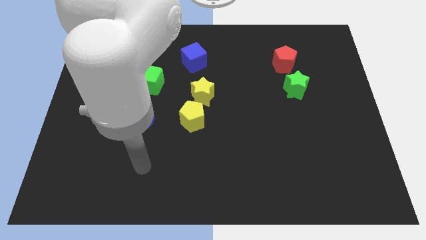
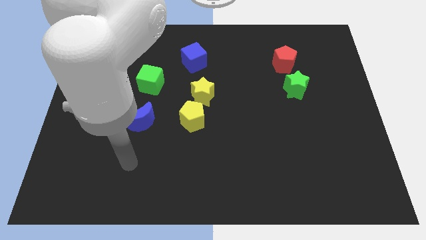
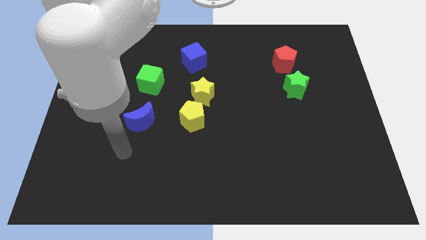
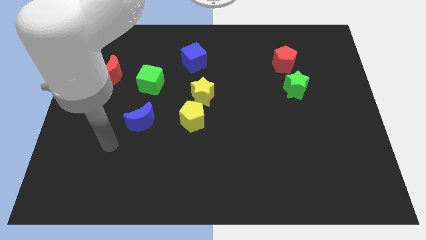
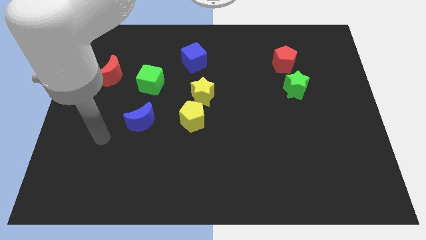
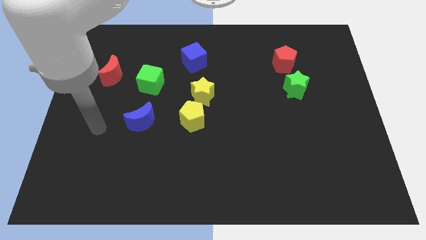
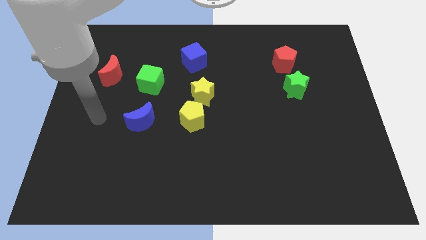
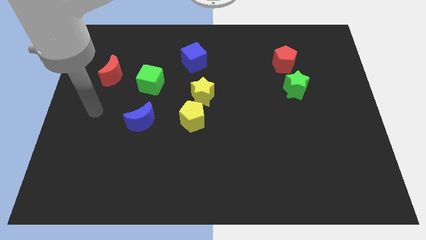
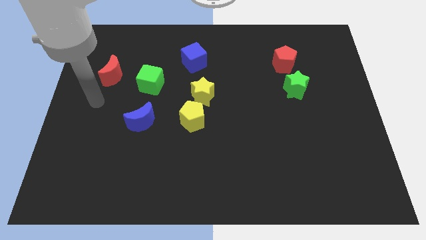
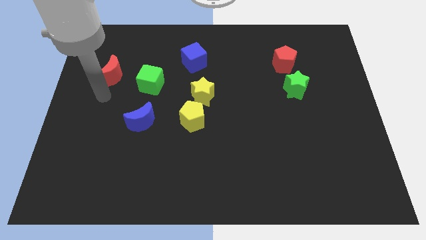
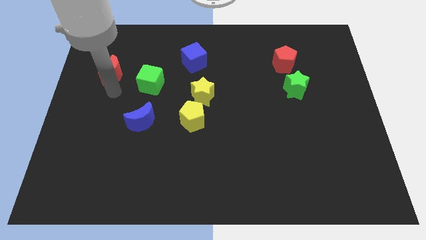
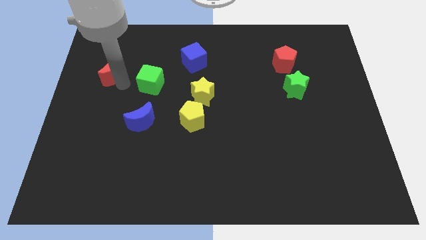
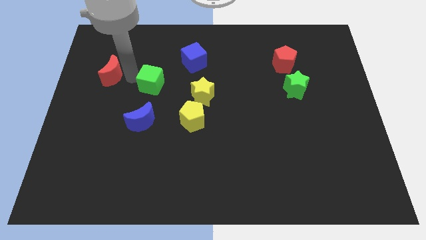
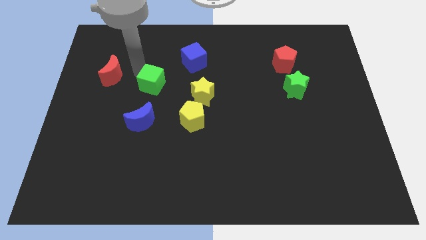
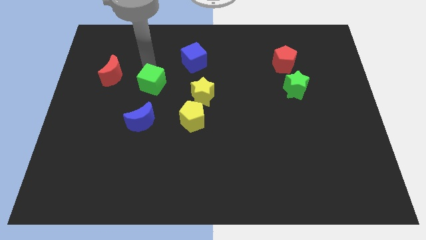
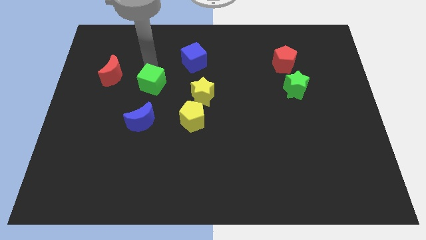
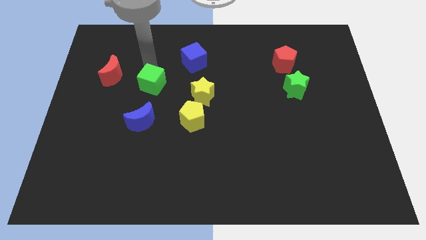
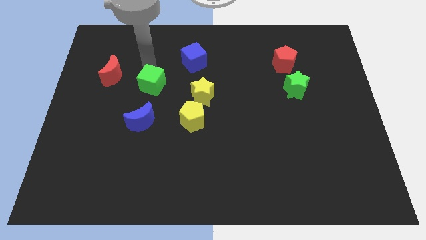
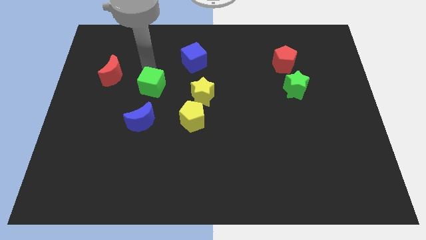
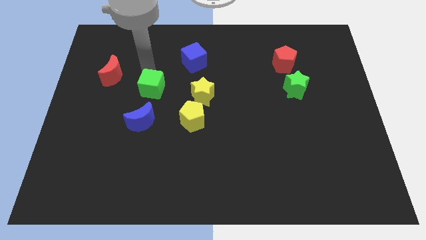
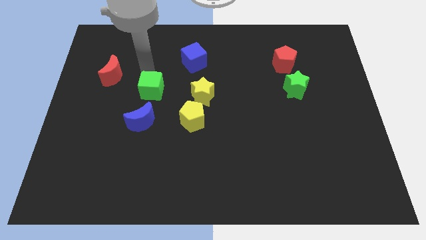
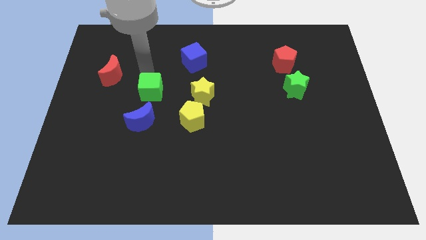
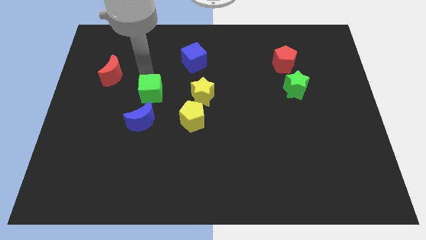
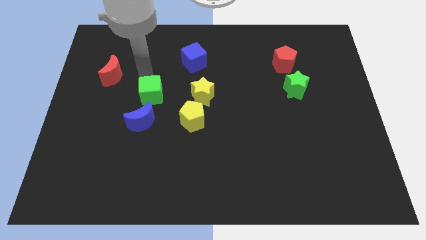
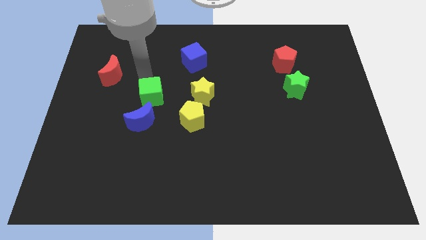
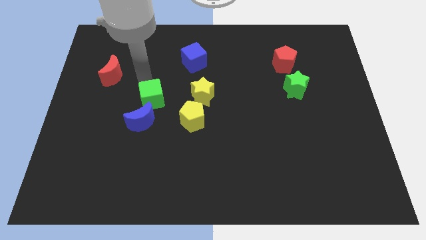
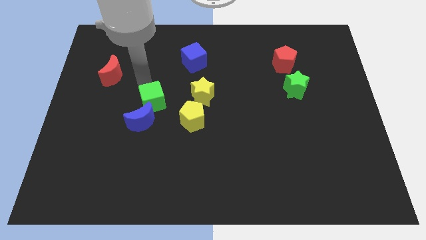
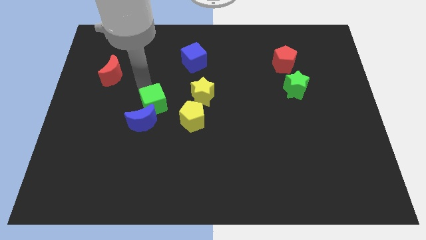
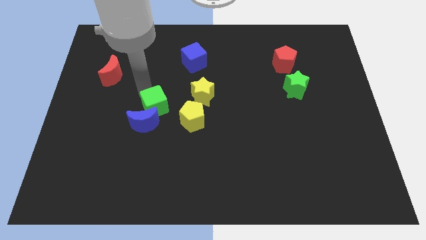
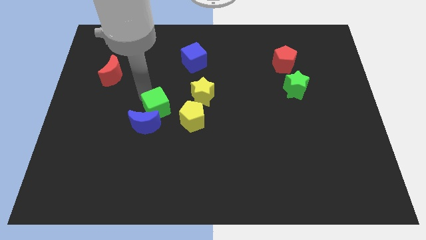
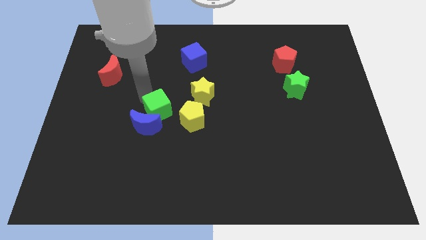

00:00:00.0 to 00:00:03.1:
push the green cube diagonally downwards and right slightly

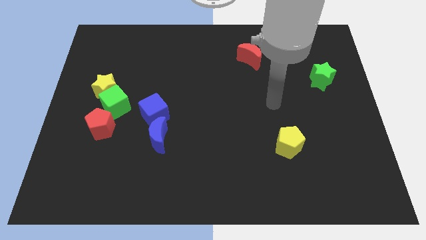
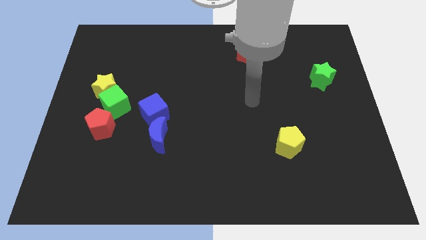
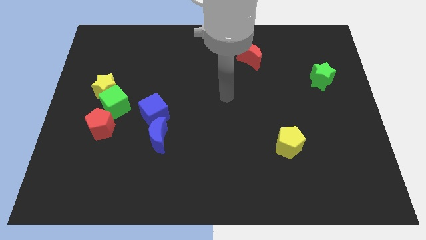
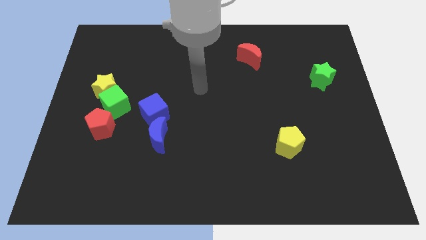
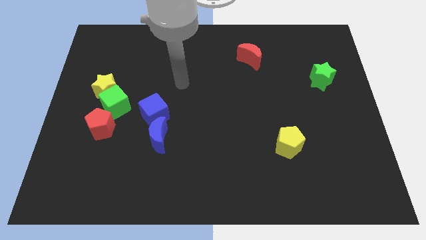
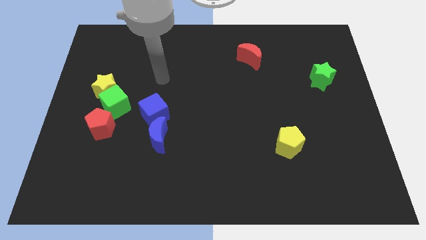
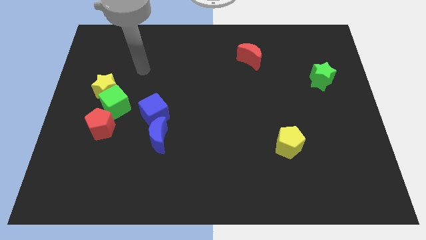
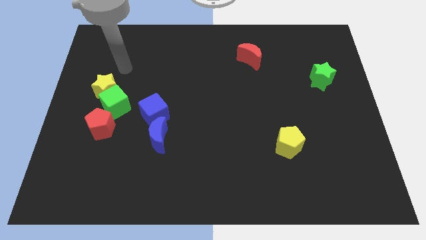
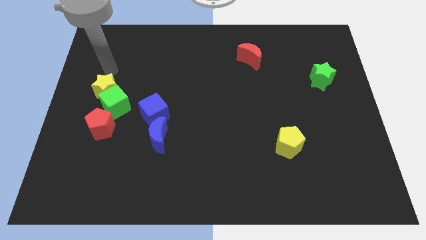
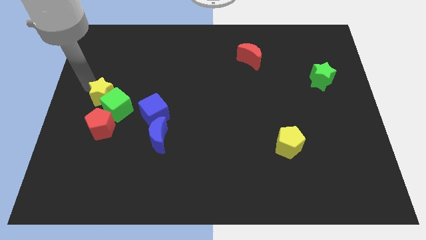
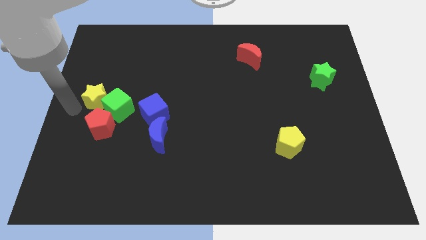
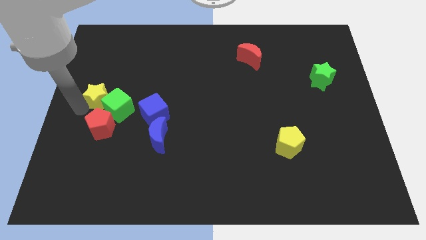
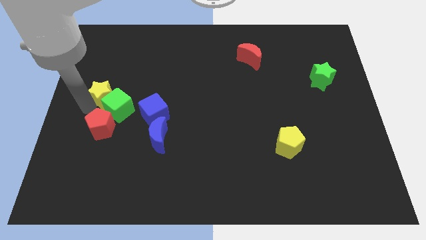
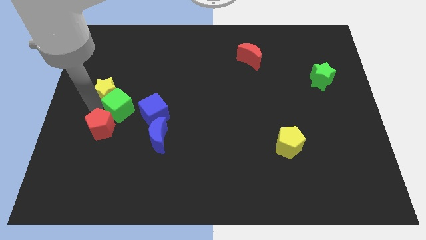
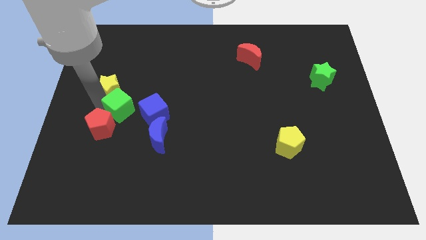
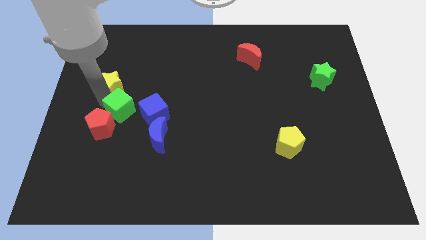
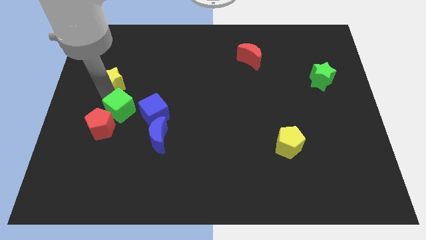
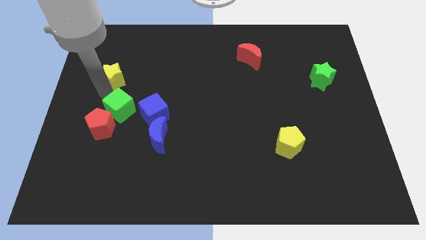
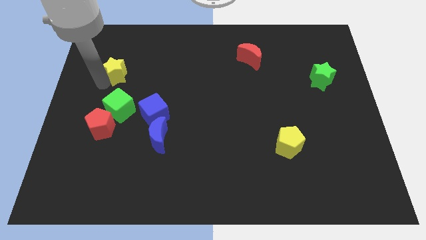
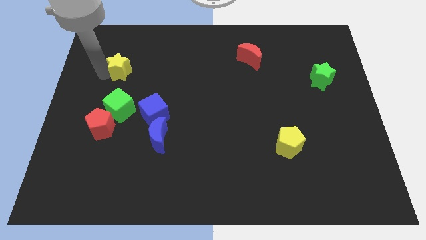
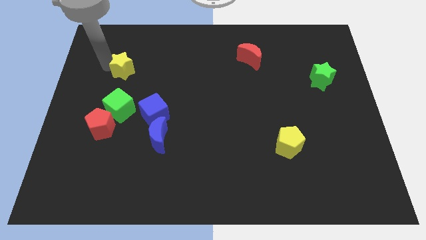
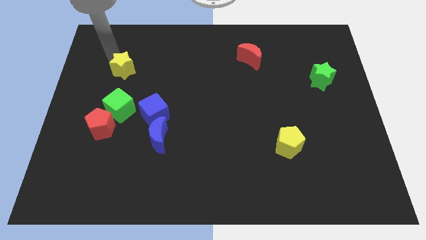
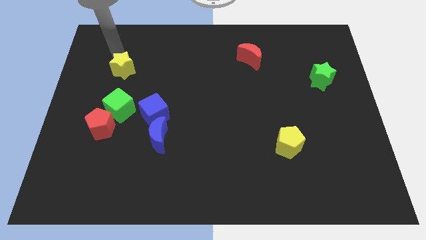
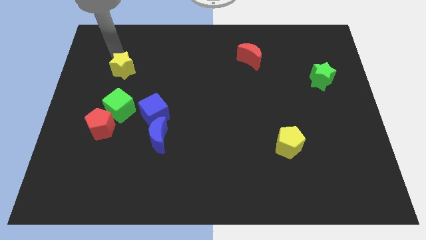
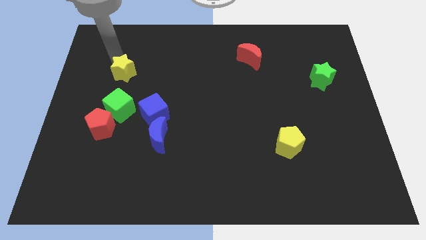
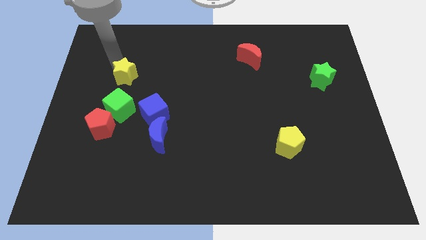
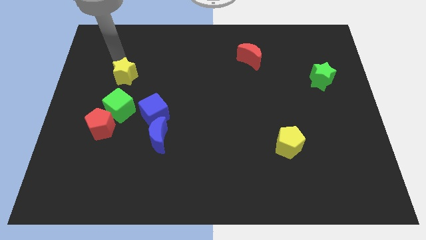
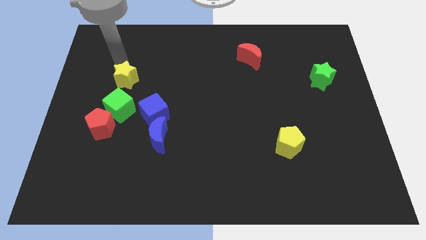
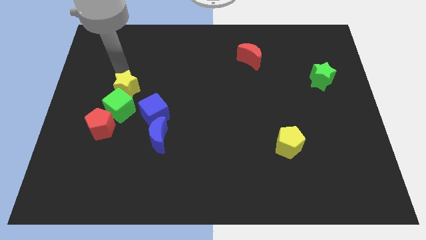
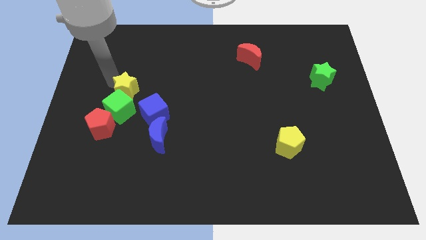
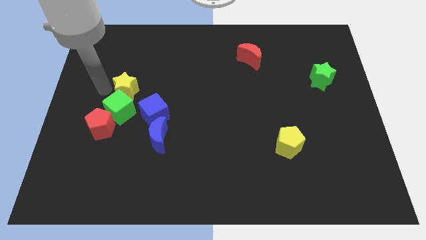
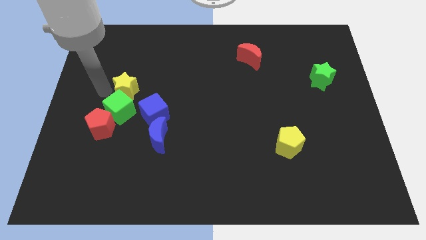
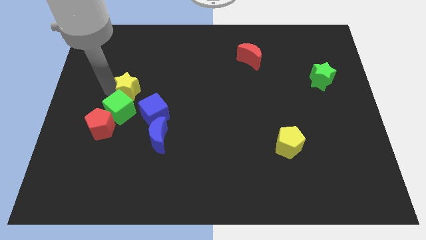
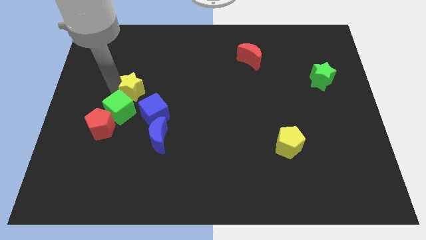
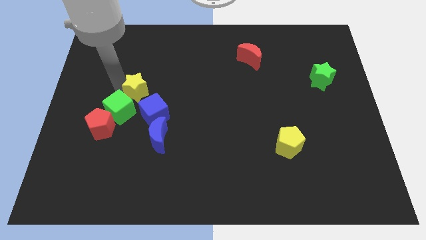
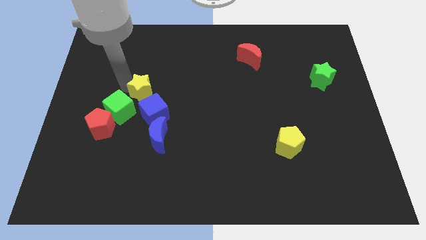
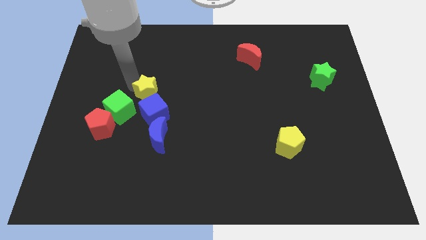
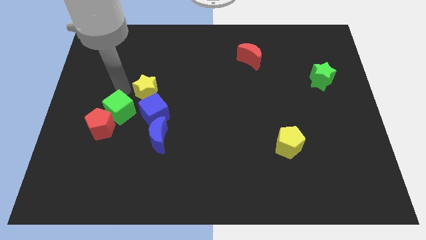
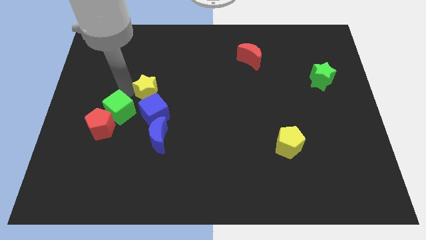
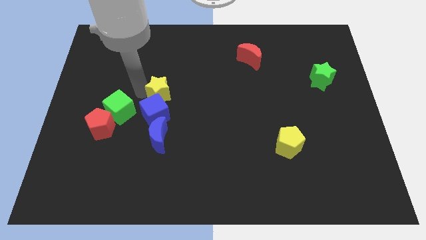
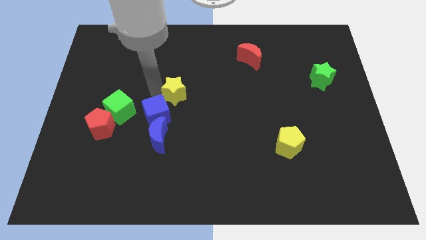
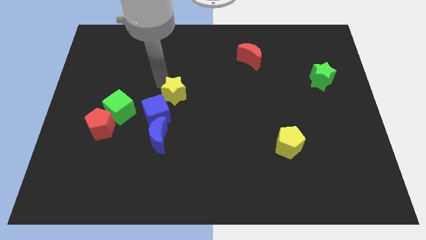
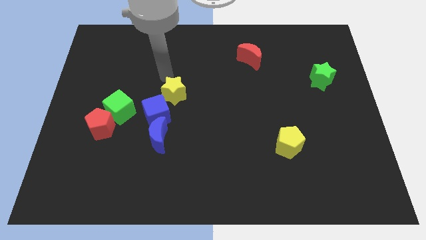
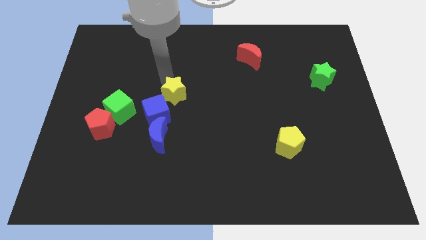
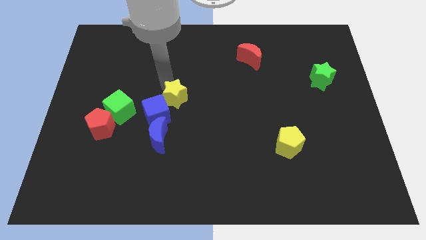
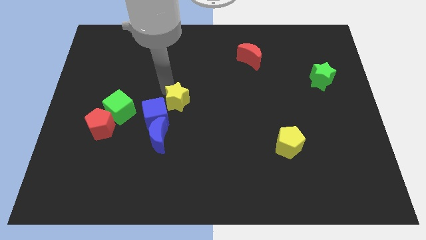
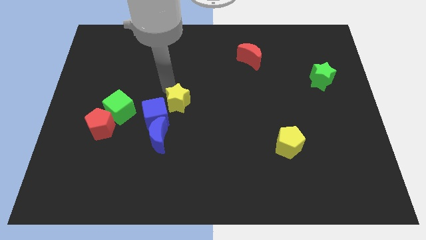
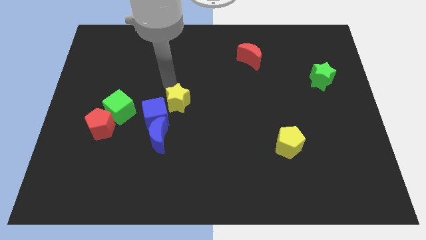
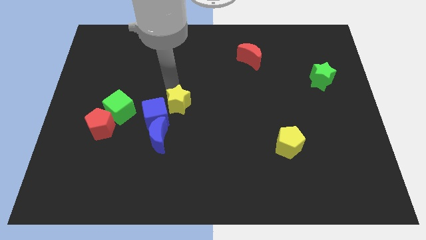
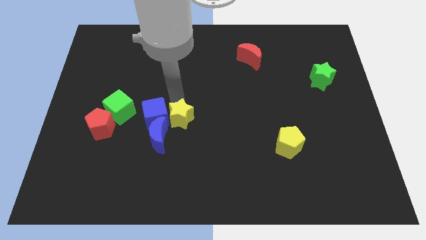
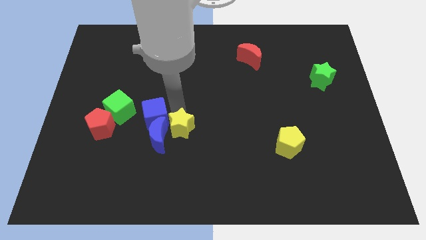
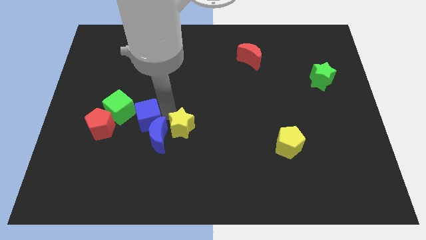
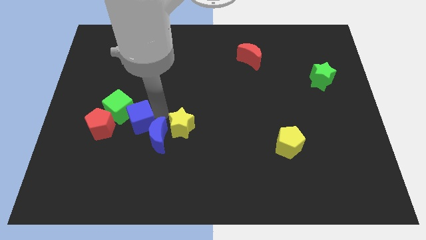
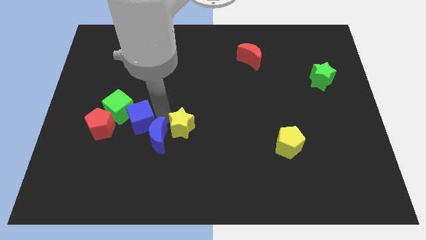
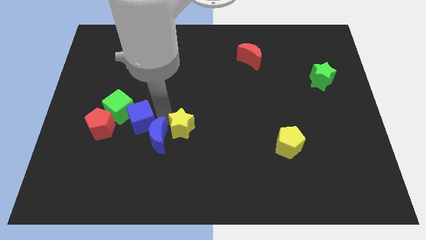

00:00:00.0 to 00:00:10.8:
slide the yellow star downwards and right
